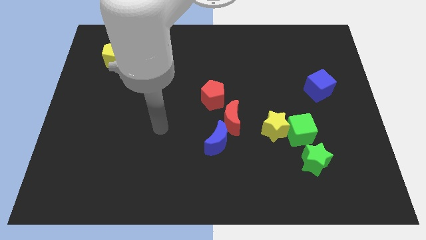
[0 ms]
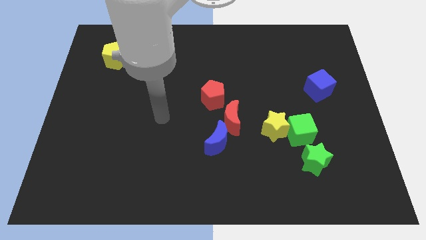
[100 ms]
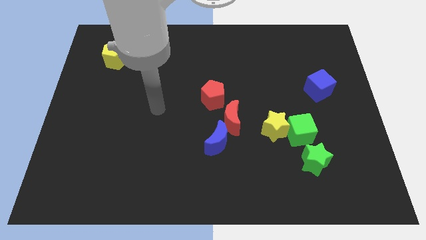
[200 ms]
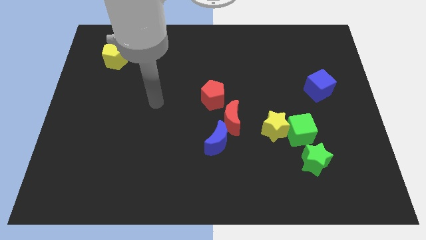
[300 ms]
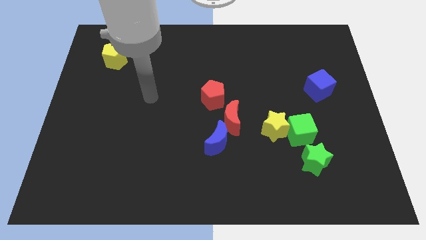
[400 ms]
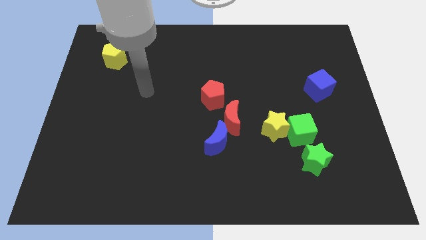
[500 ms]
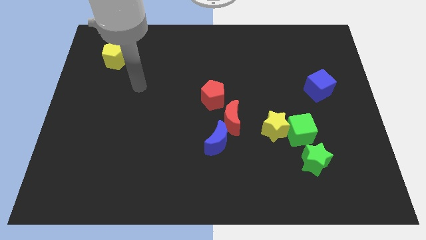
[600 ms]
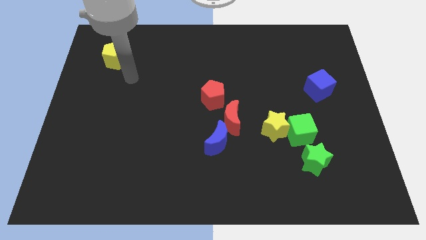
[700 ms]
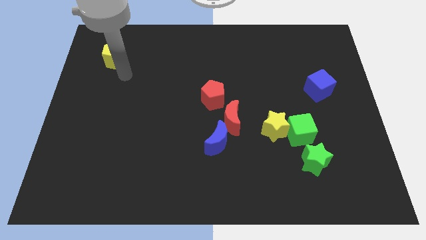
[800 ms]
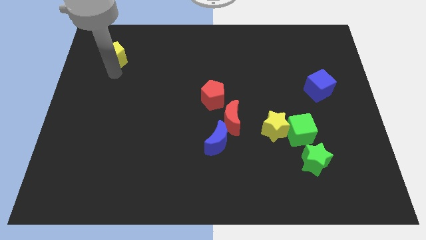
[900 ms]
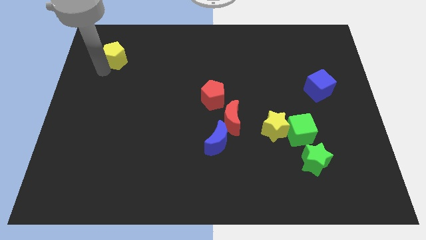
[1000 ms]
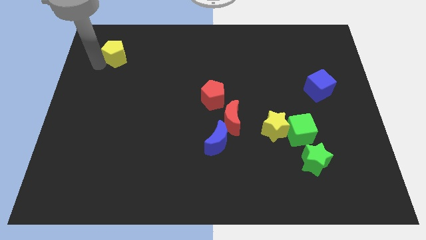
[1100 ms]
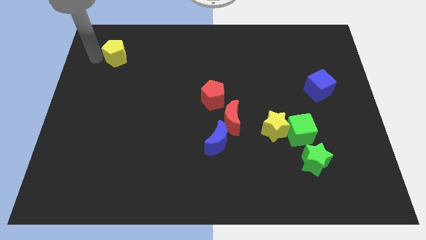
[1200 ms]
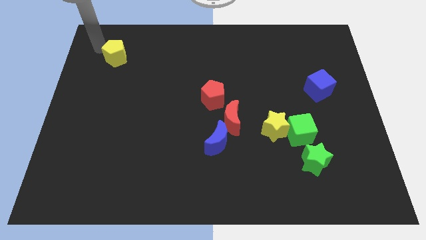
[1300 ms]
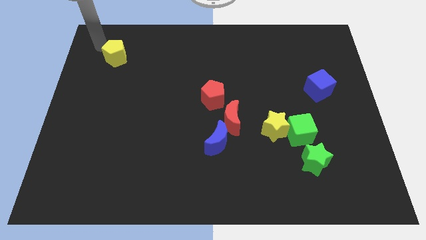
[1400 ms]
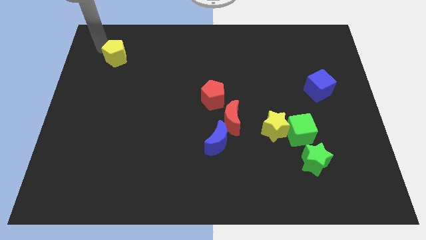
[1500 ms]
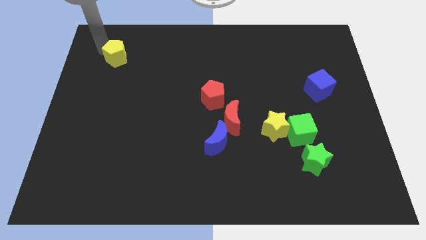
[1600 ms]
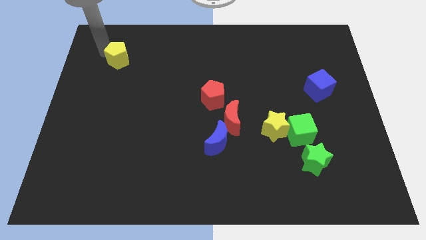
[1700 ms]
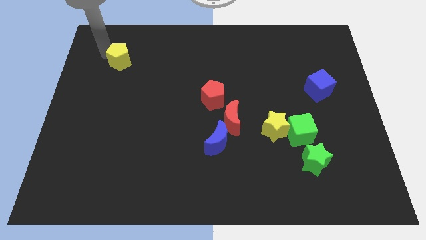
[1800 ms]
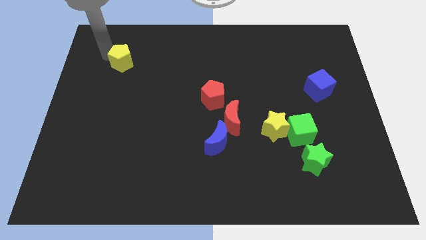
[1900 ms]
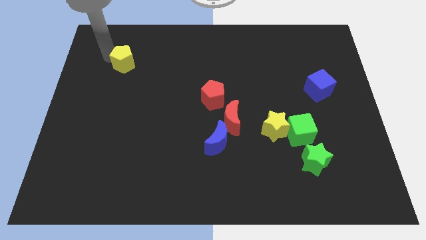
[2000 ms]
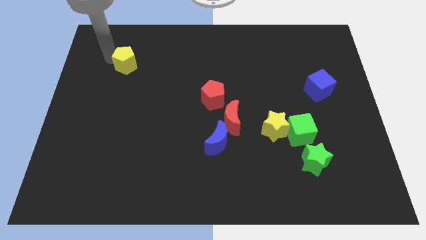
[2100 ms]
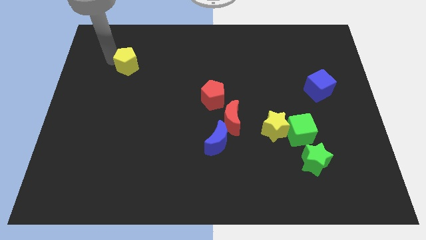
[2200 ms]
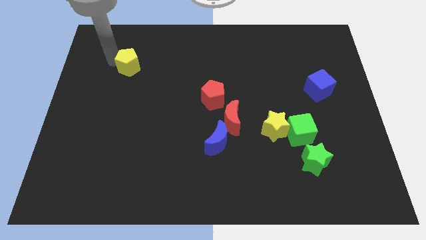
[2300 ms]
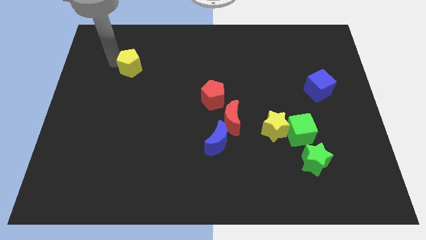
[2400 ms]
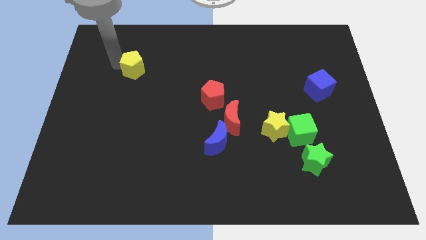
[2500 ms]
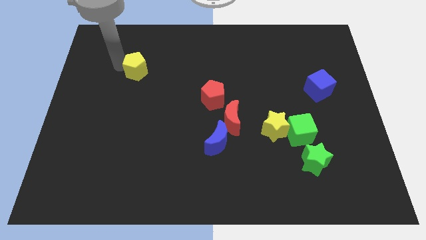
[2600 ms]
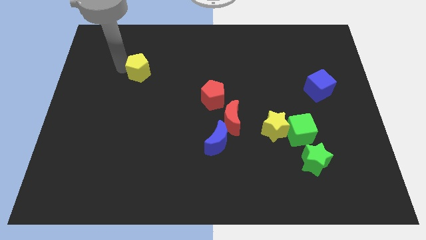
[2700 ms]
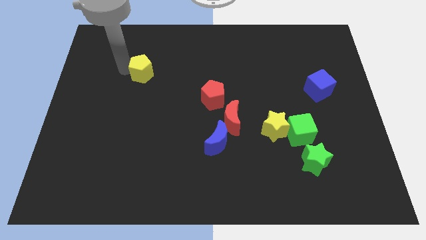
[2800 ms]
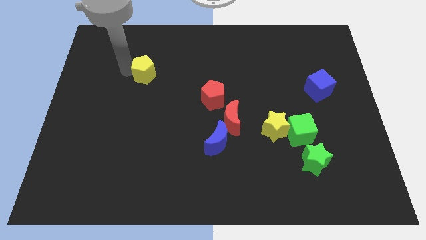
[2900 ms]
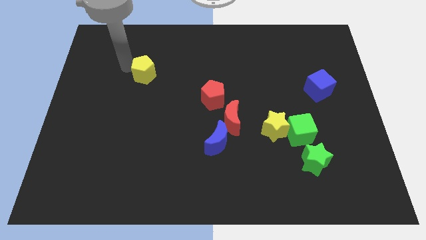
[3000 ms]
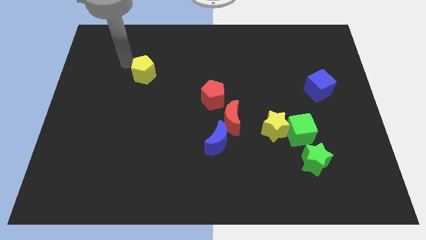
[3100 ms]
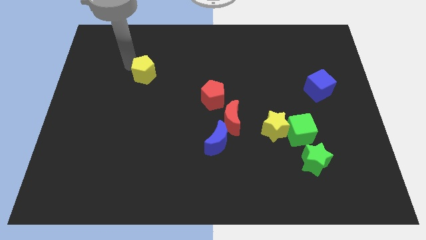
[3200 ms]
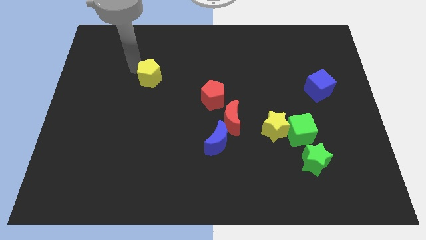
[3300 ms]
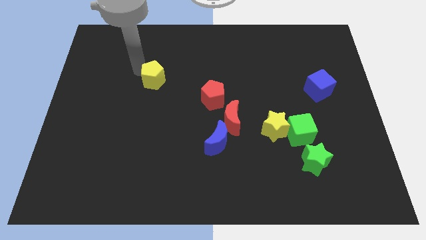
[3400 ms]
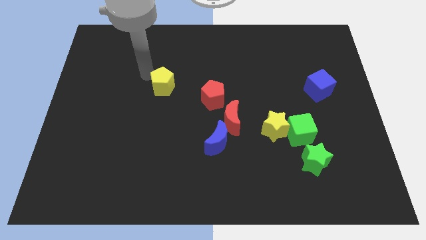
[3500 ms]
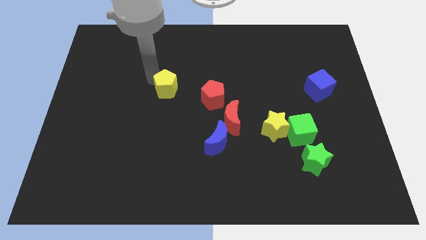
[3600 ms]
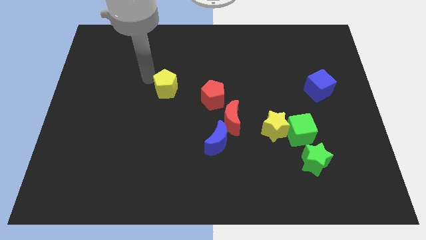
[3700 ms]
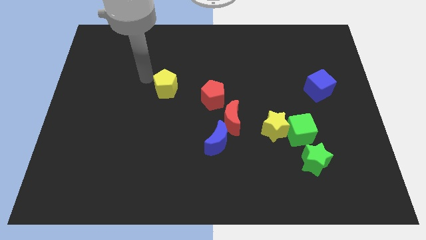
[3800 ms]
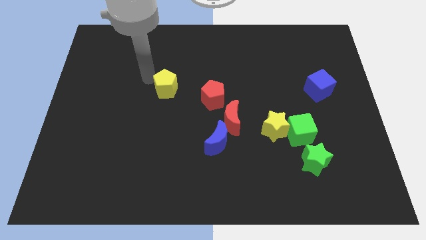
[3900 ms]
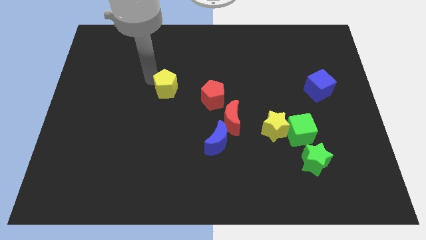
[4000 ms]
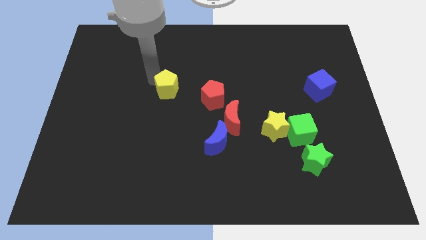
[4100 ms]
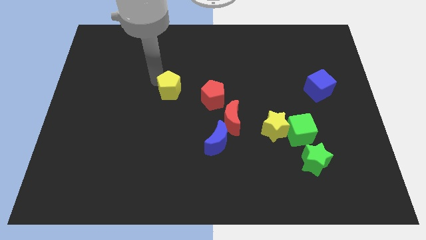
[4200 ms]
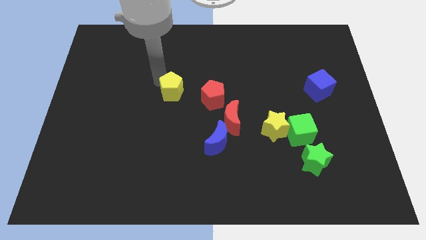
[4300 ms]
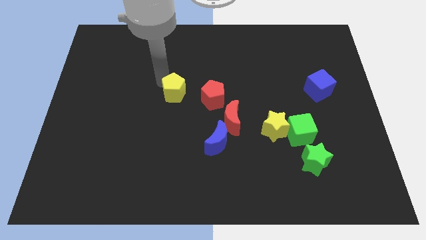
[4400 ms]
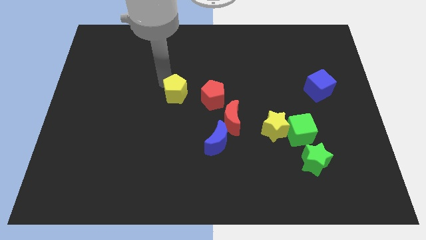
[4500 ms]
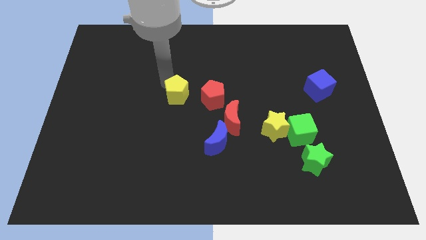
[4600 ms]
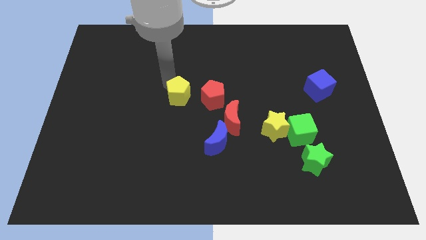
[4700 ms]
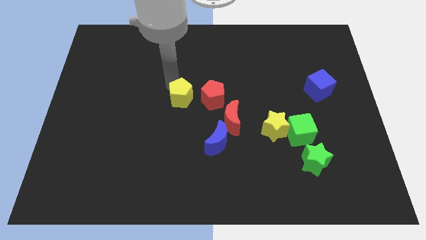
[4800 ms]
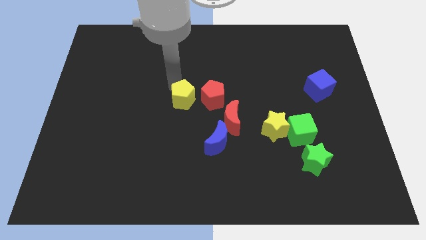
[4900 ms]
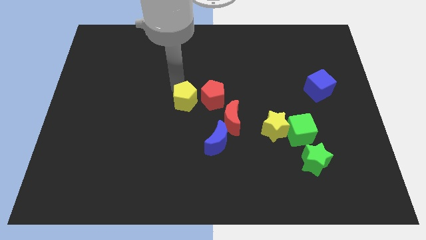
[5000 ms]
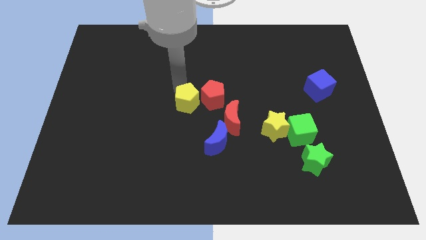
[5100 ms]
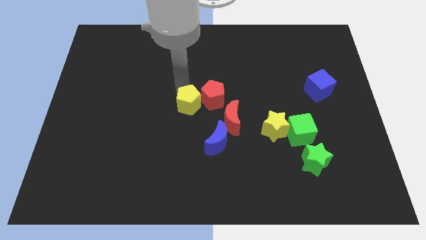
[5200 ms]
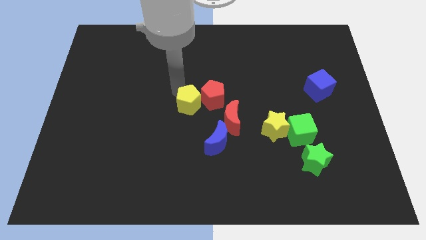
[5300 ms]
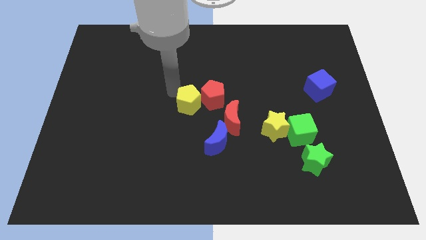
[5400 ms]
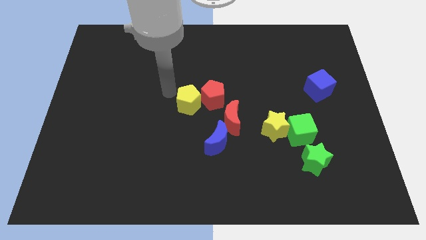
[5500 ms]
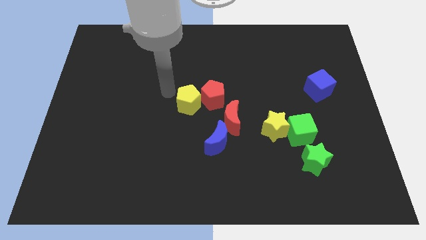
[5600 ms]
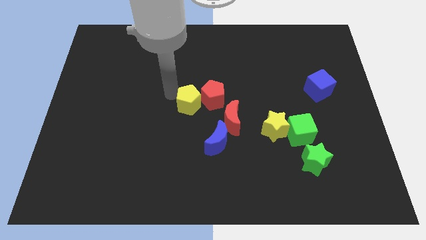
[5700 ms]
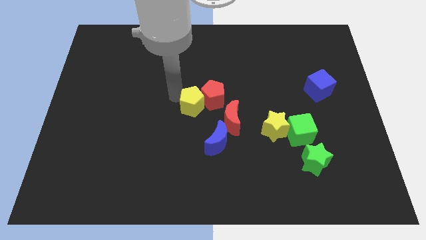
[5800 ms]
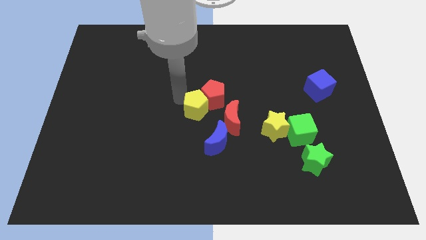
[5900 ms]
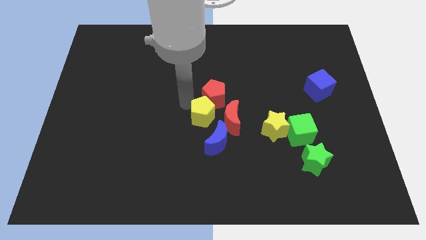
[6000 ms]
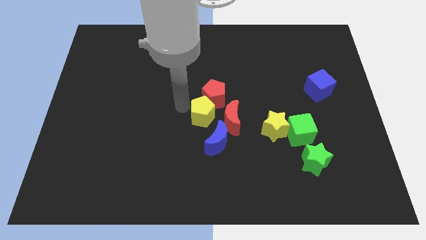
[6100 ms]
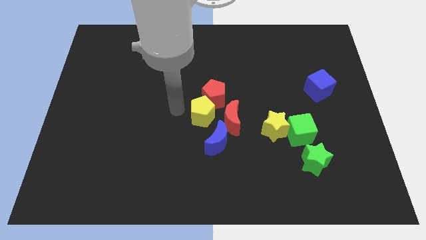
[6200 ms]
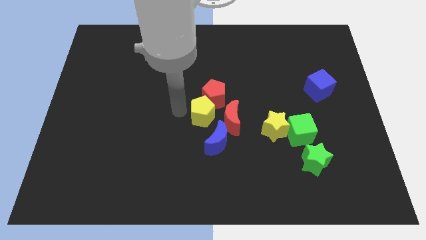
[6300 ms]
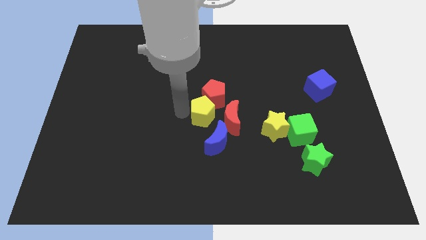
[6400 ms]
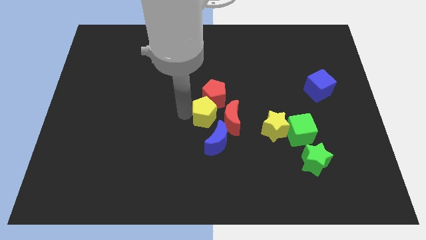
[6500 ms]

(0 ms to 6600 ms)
slide the yellow pentagon next to the red moon
